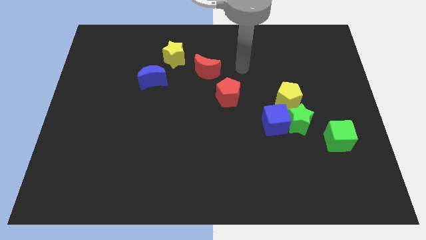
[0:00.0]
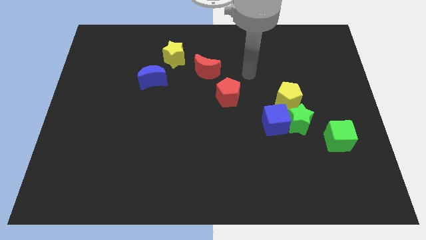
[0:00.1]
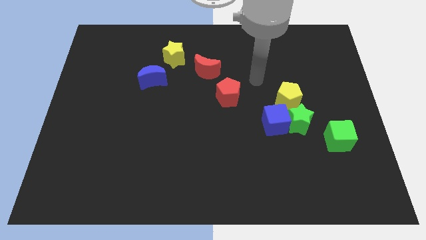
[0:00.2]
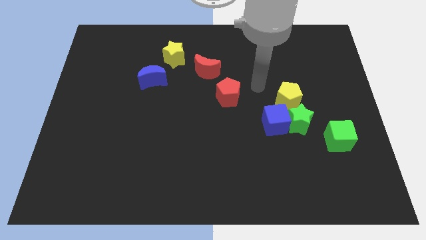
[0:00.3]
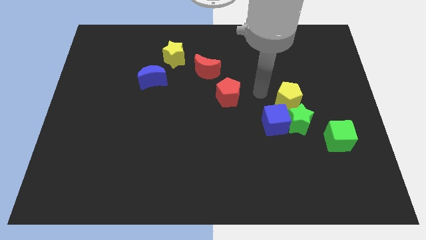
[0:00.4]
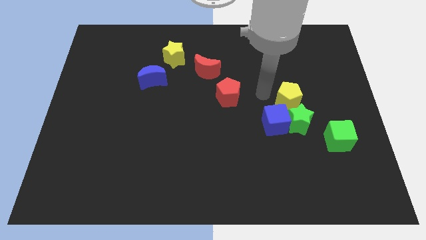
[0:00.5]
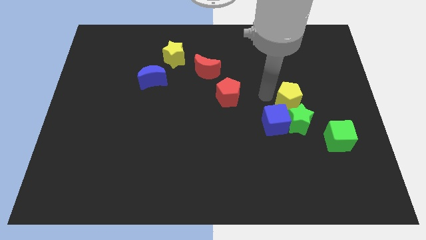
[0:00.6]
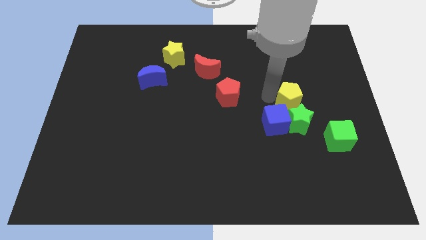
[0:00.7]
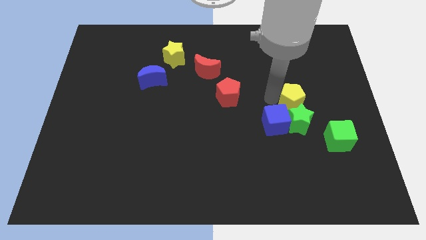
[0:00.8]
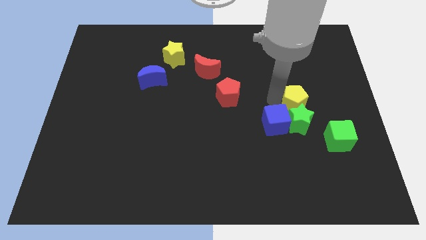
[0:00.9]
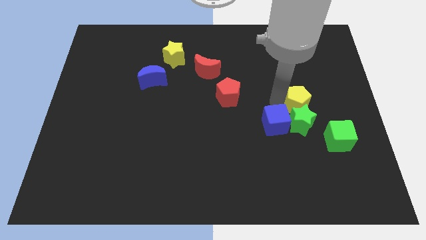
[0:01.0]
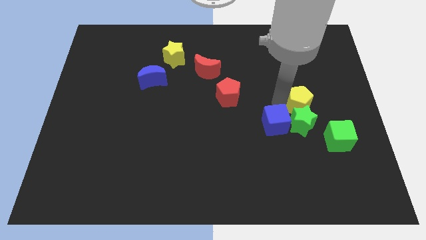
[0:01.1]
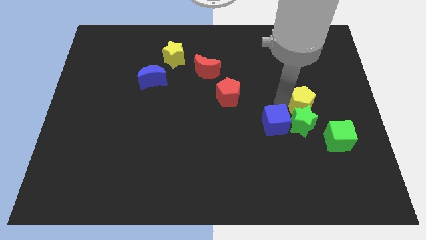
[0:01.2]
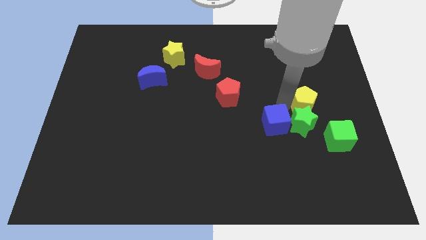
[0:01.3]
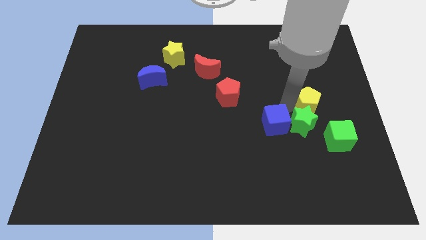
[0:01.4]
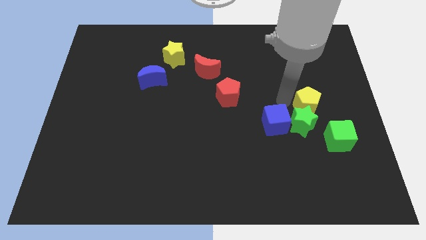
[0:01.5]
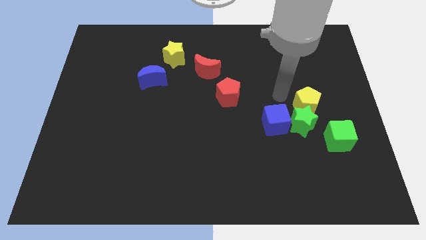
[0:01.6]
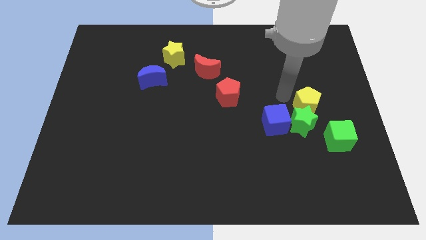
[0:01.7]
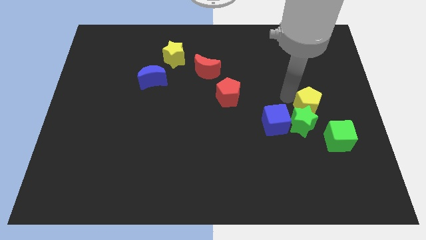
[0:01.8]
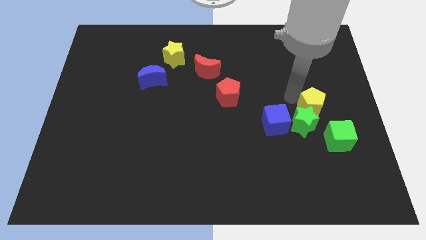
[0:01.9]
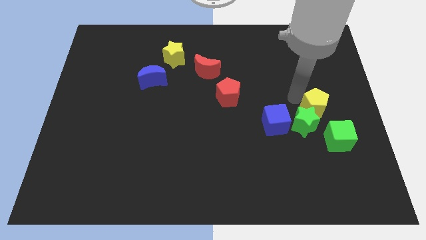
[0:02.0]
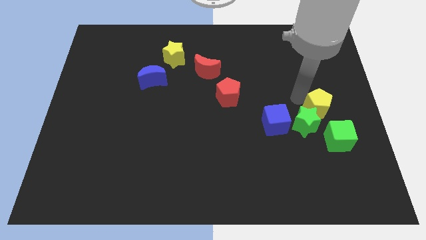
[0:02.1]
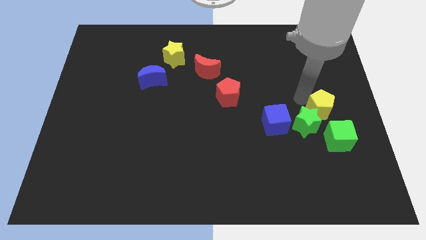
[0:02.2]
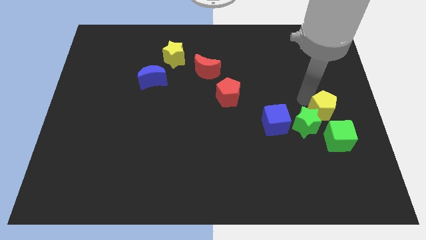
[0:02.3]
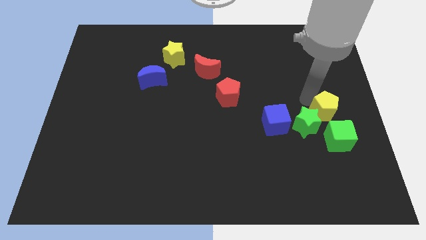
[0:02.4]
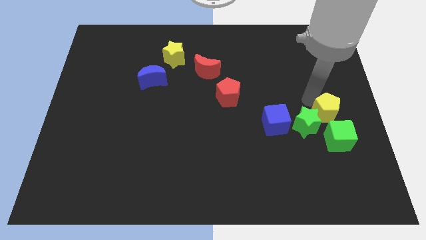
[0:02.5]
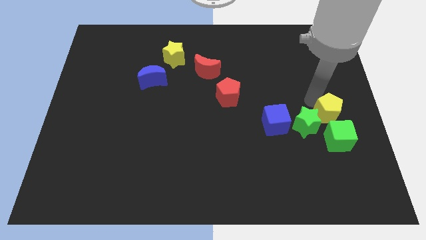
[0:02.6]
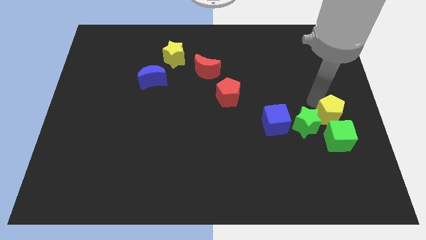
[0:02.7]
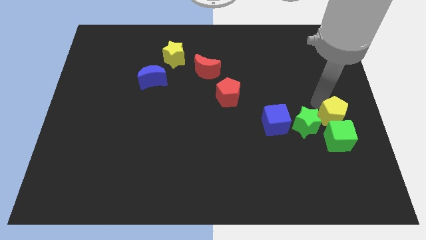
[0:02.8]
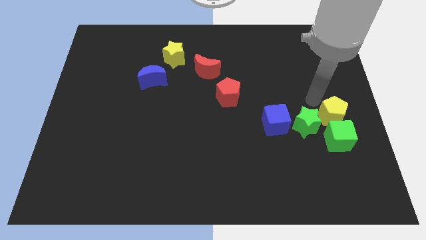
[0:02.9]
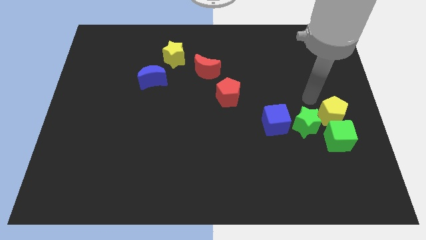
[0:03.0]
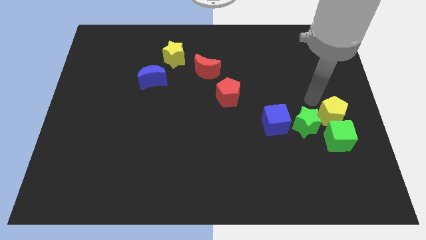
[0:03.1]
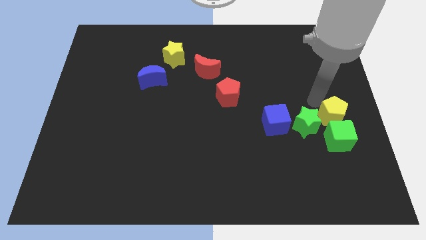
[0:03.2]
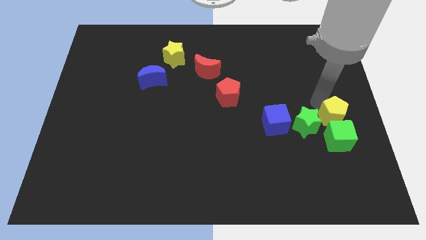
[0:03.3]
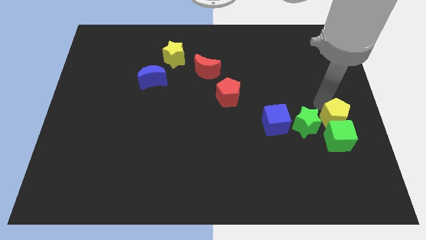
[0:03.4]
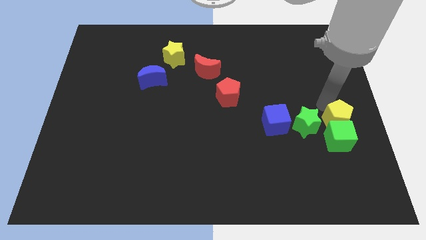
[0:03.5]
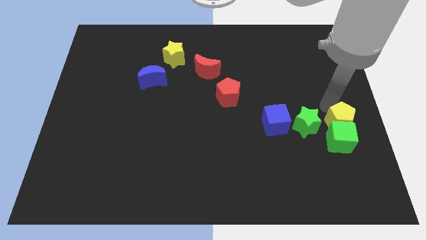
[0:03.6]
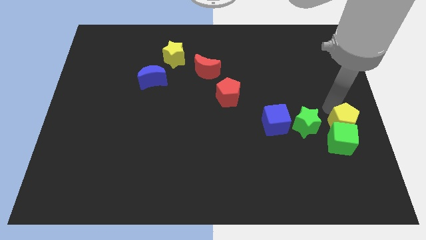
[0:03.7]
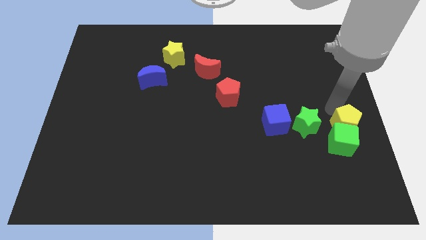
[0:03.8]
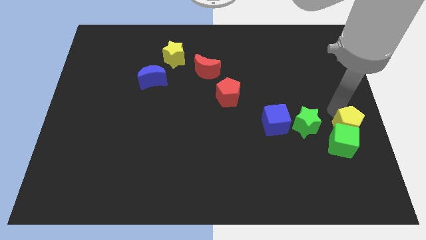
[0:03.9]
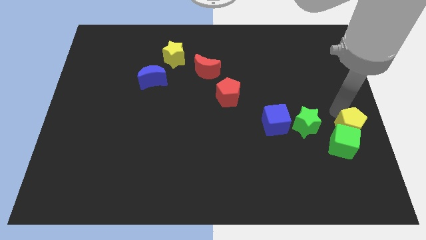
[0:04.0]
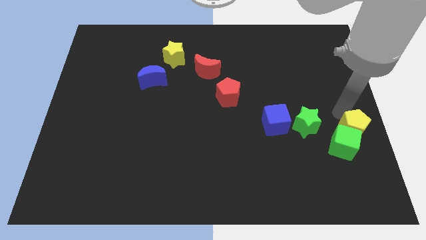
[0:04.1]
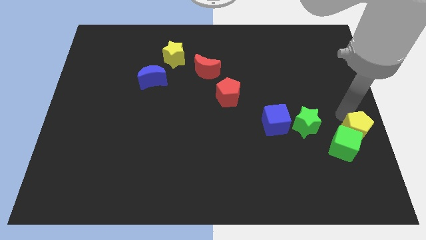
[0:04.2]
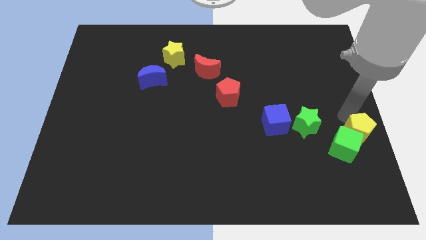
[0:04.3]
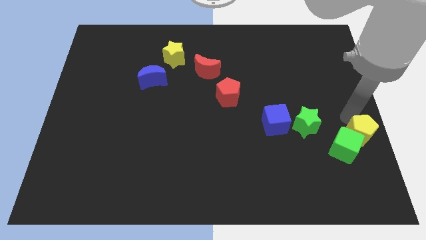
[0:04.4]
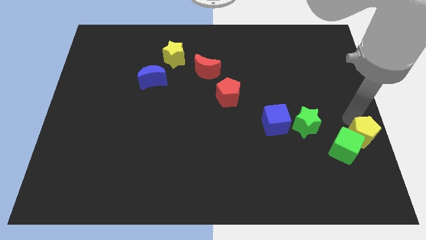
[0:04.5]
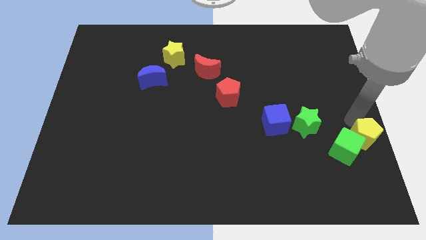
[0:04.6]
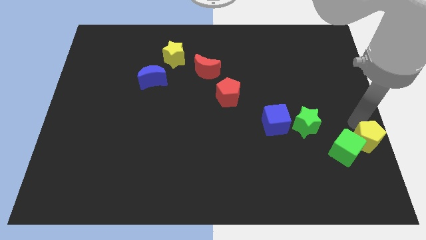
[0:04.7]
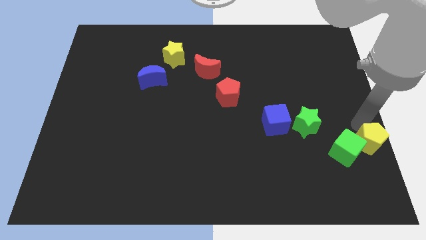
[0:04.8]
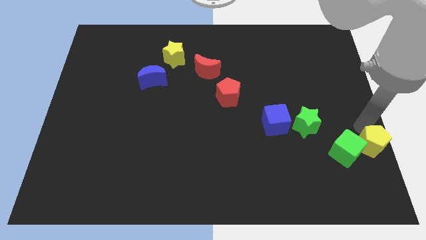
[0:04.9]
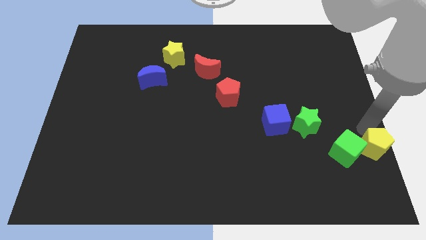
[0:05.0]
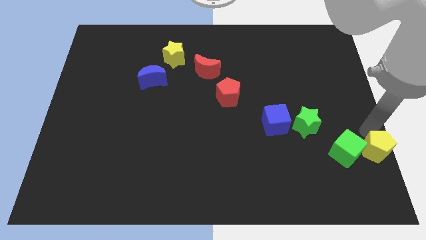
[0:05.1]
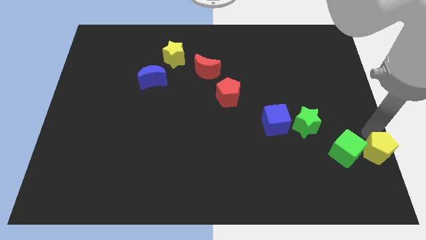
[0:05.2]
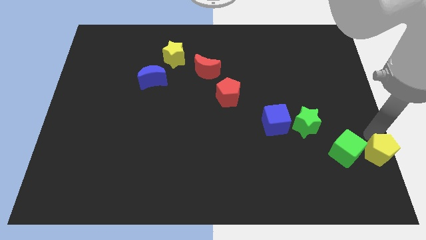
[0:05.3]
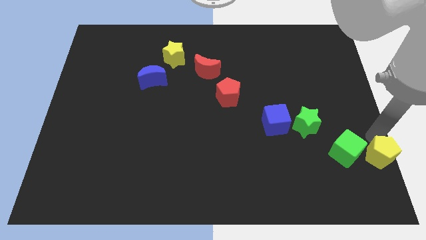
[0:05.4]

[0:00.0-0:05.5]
slide the yellow pentagon to the lower right corner

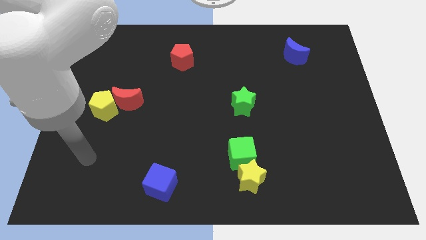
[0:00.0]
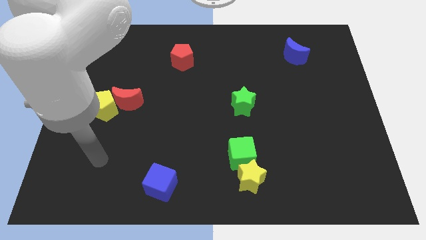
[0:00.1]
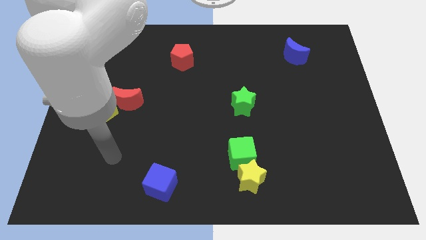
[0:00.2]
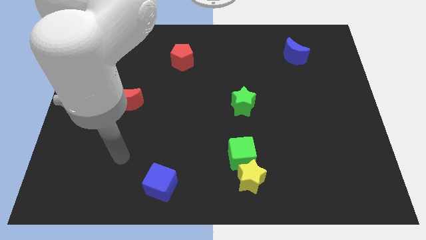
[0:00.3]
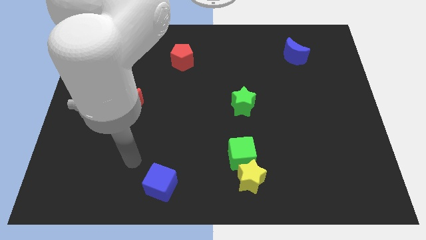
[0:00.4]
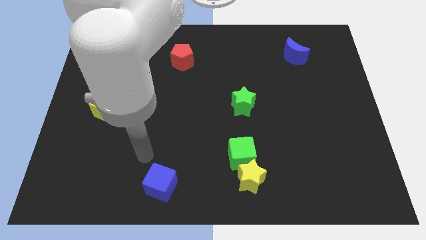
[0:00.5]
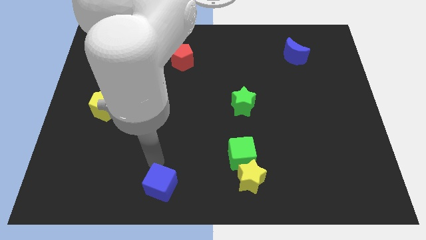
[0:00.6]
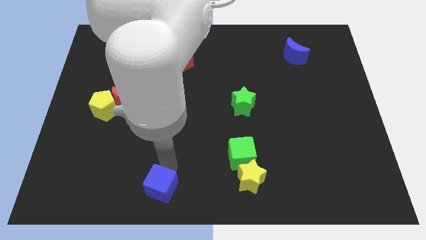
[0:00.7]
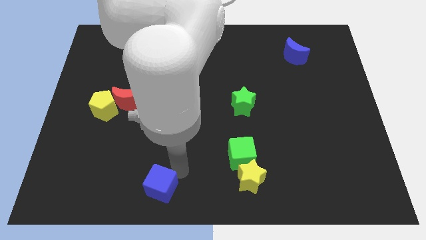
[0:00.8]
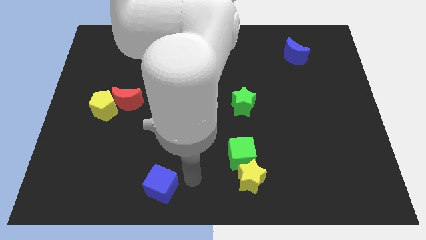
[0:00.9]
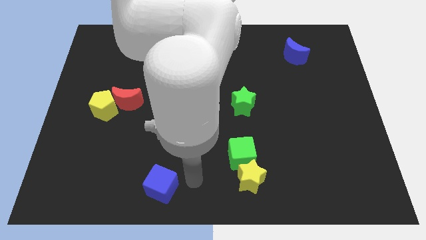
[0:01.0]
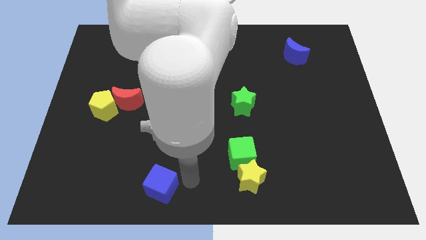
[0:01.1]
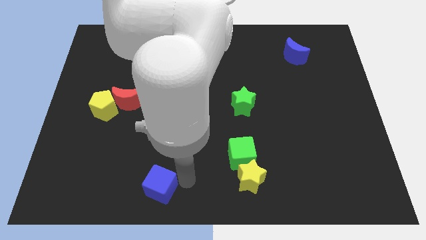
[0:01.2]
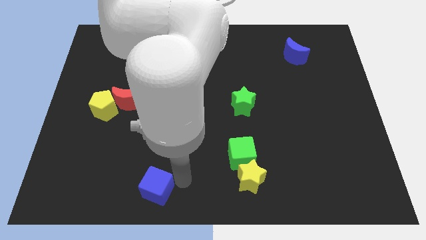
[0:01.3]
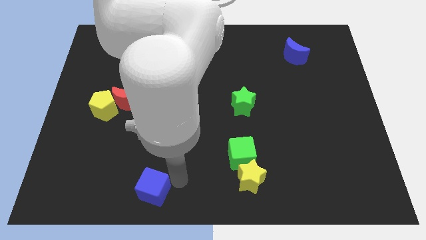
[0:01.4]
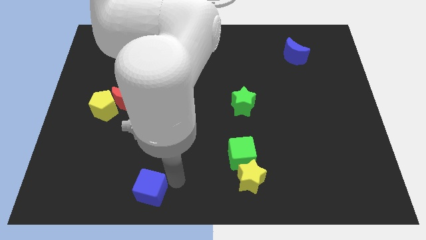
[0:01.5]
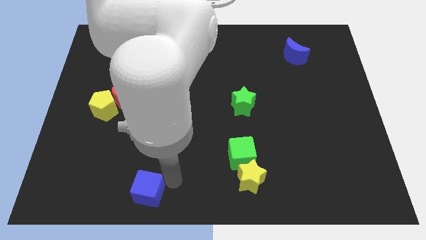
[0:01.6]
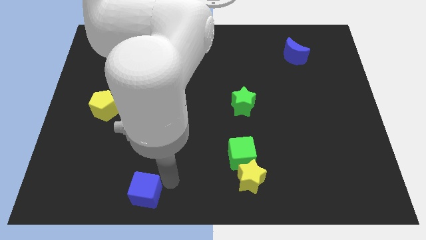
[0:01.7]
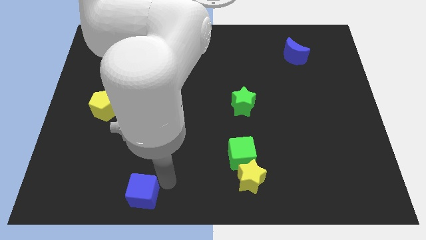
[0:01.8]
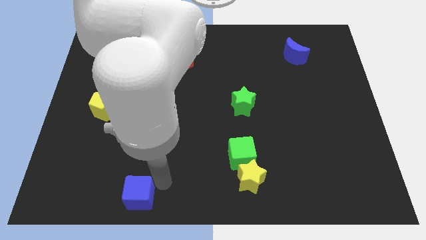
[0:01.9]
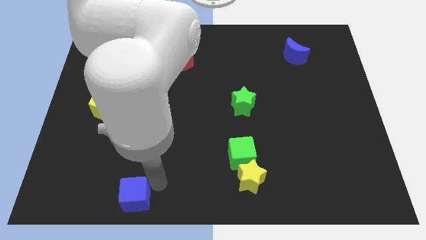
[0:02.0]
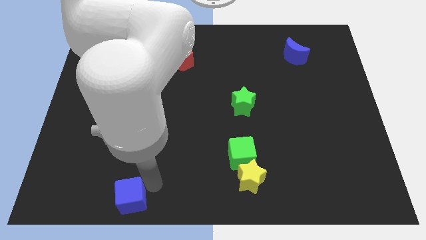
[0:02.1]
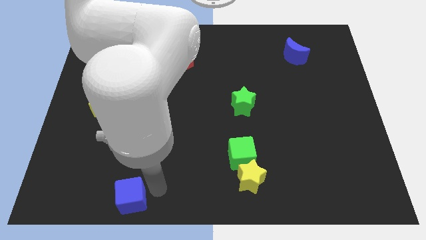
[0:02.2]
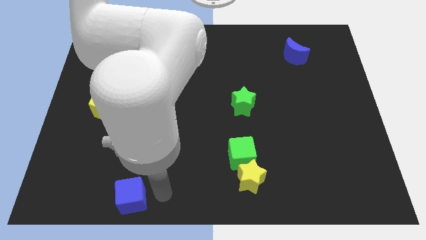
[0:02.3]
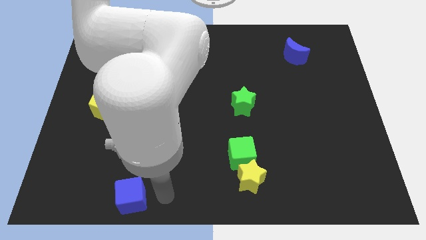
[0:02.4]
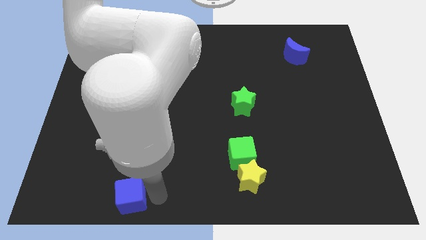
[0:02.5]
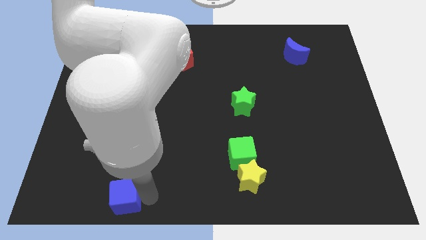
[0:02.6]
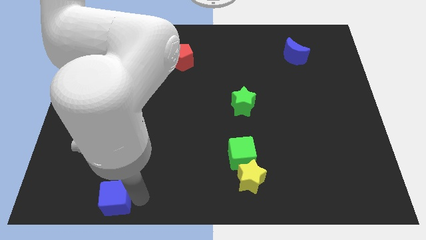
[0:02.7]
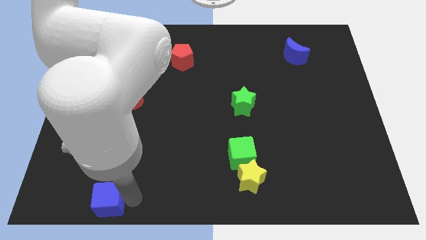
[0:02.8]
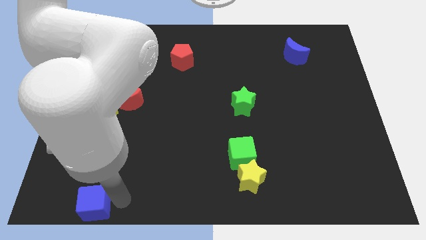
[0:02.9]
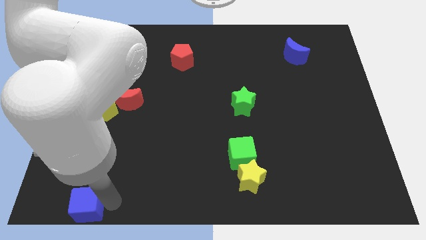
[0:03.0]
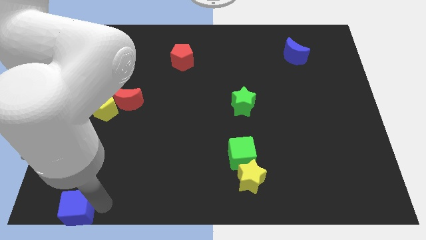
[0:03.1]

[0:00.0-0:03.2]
push the blue cube to the bottom left corner
